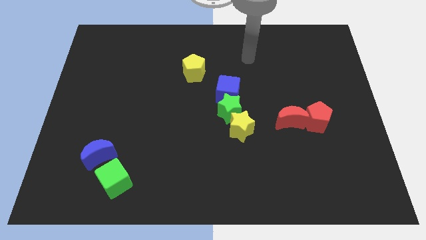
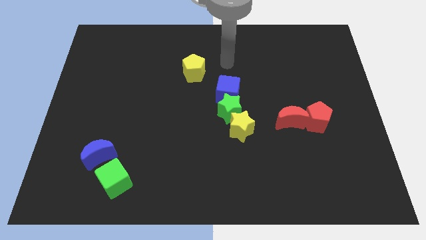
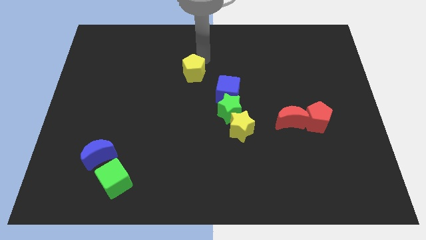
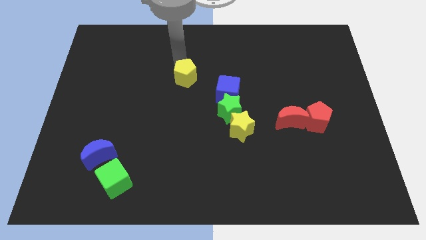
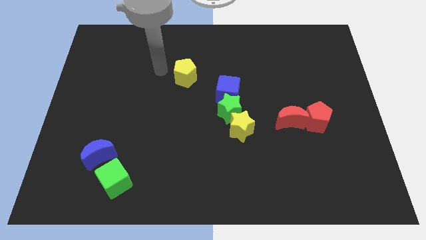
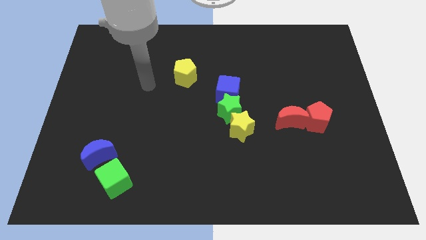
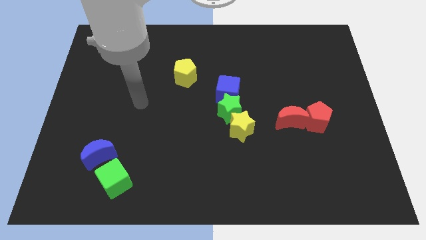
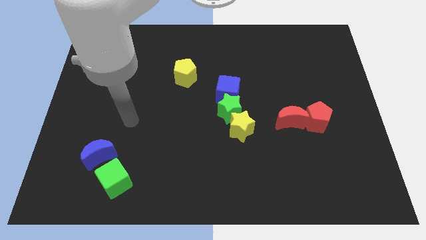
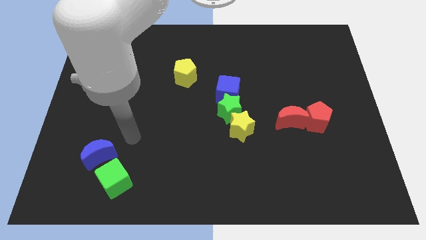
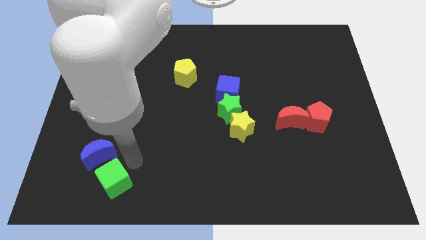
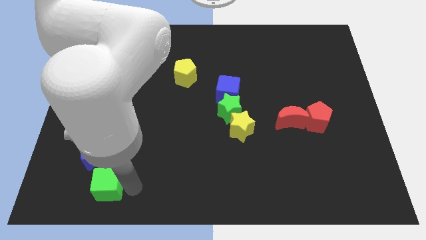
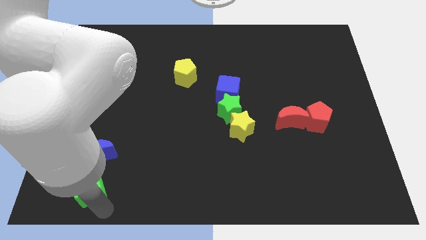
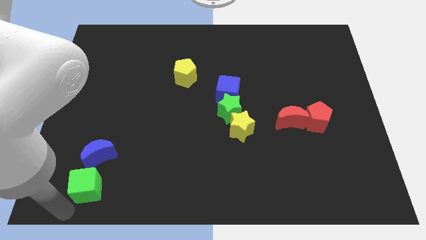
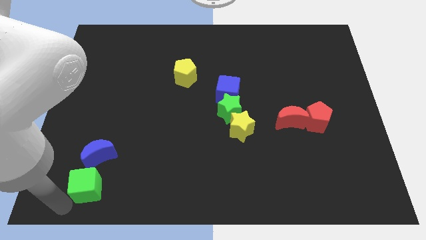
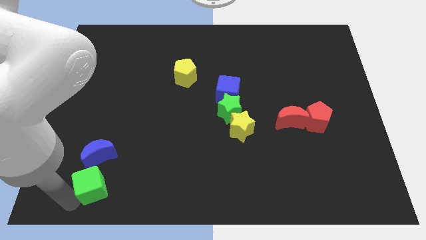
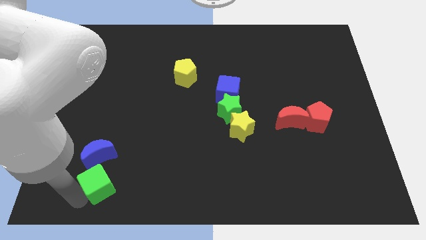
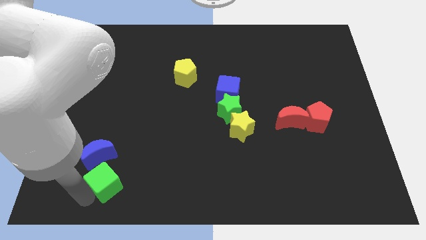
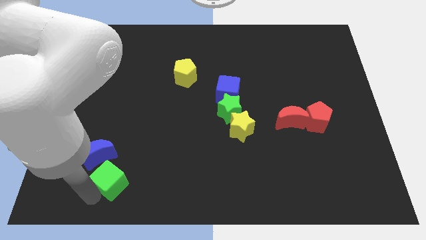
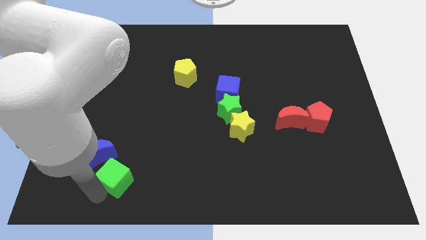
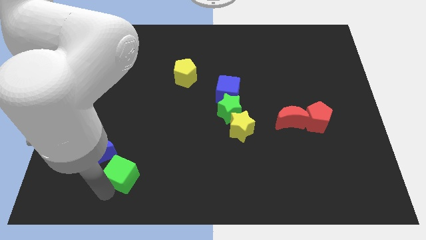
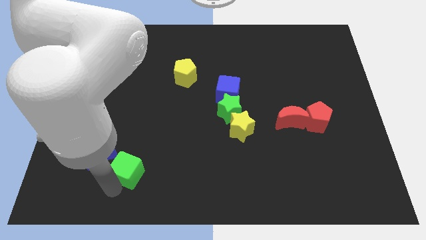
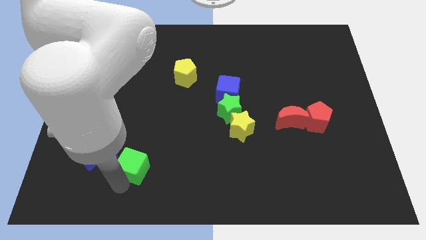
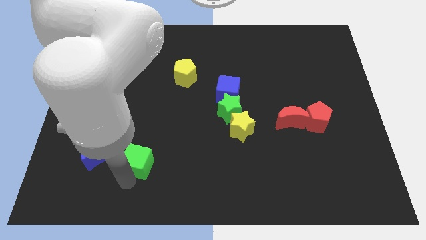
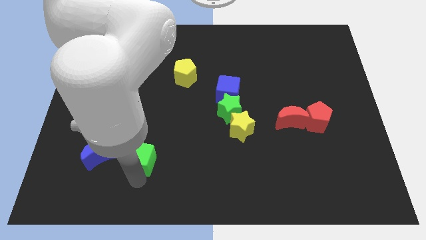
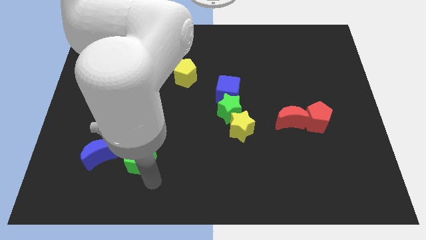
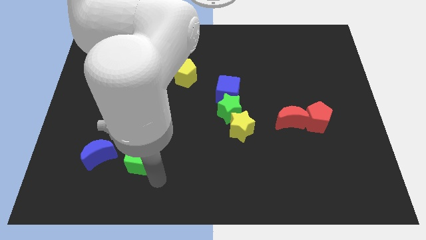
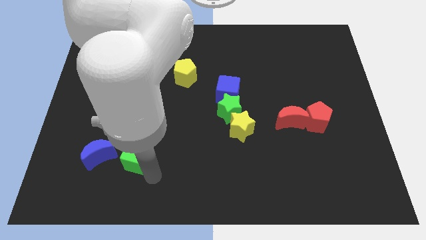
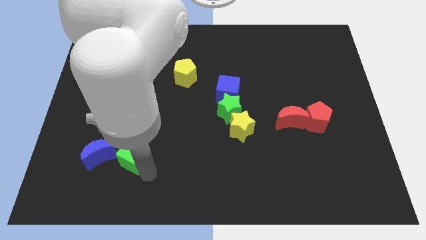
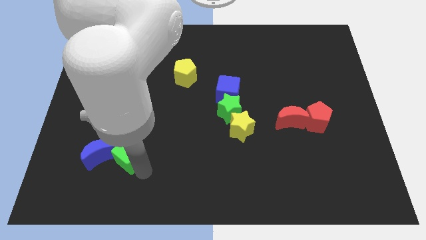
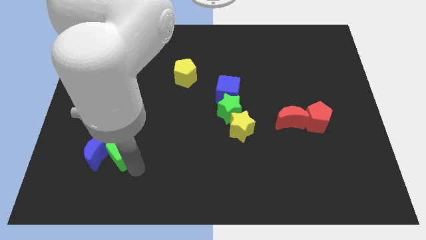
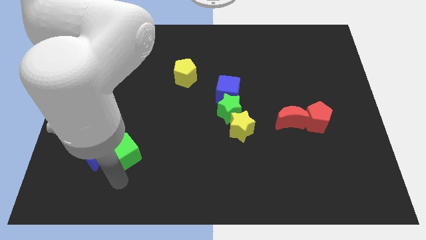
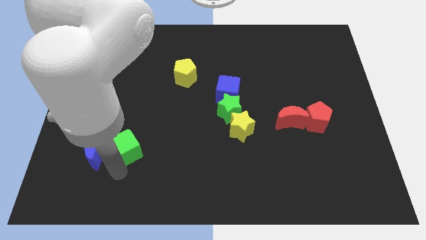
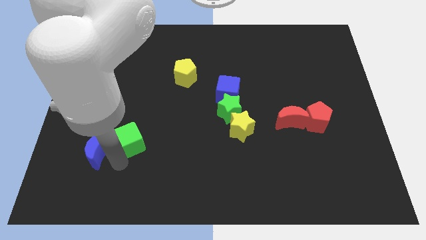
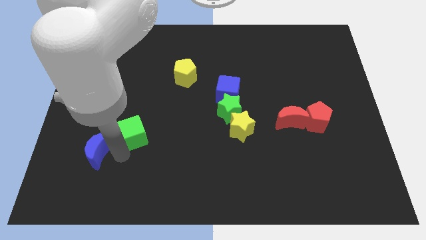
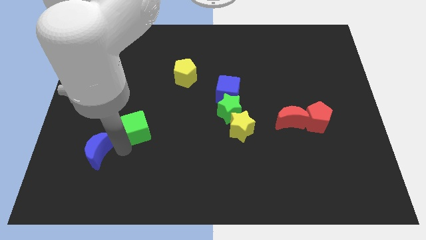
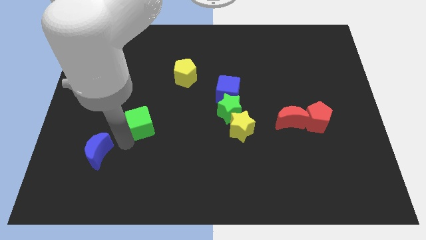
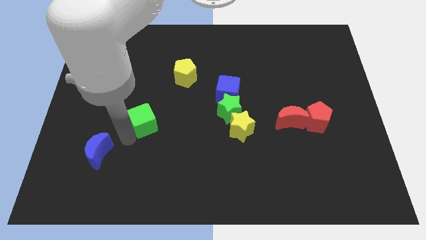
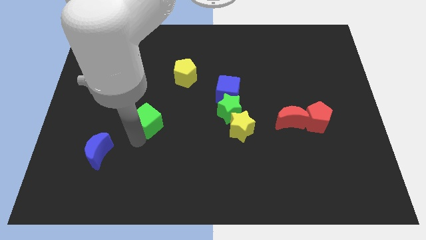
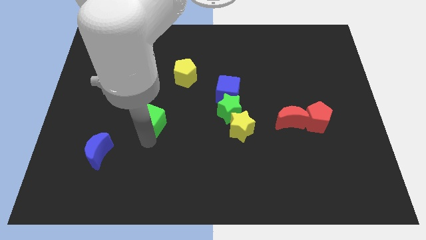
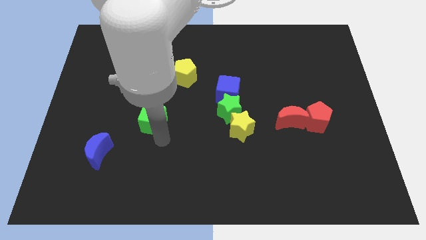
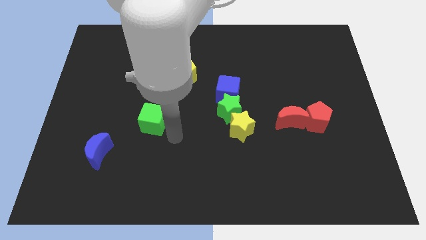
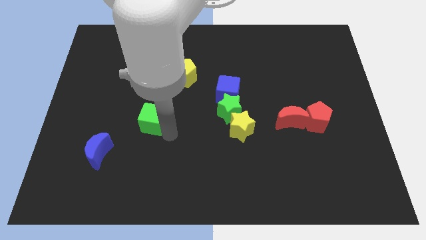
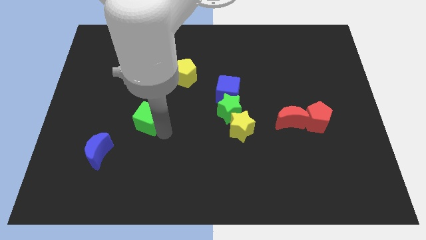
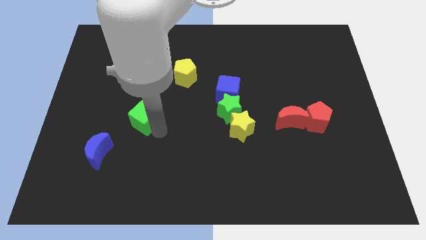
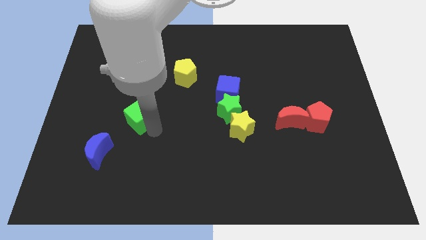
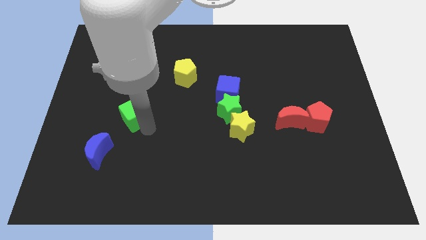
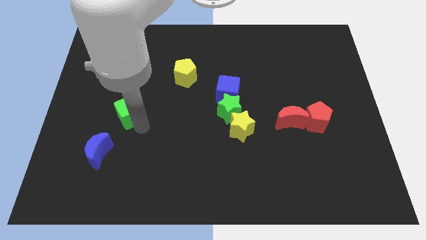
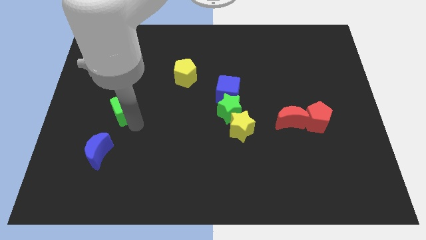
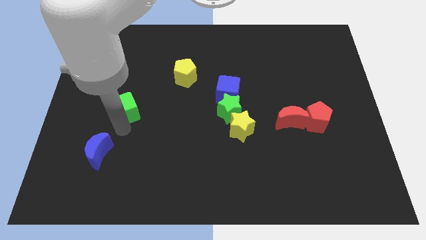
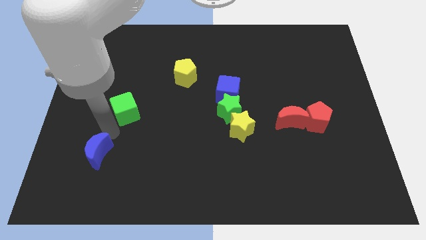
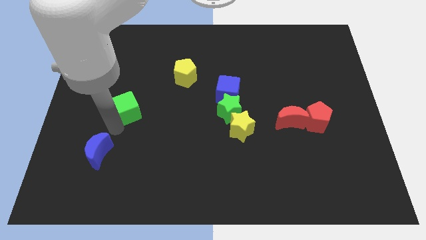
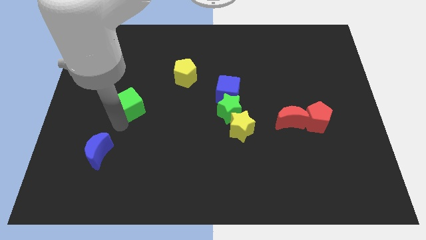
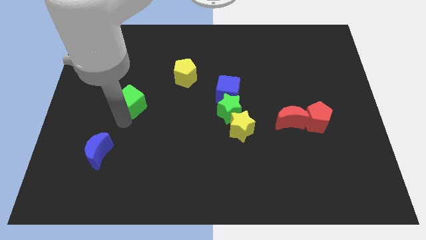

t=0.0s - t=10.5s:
move the green cube up

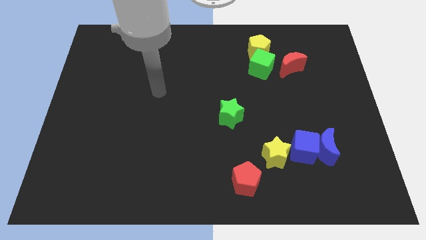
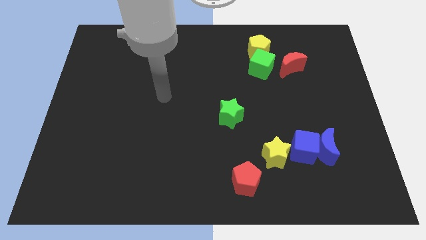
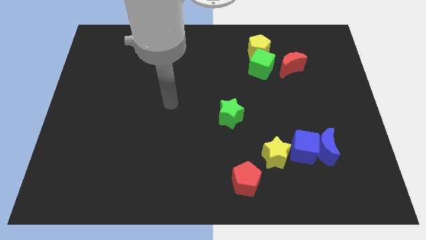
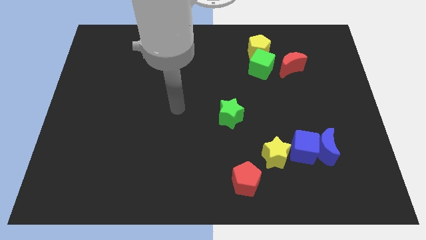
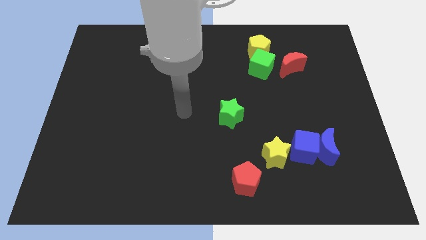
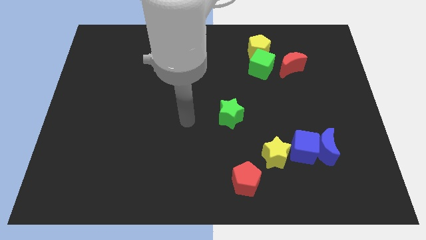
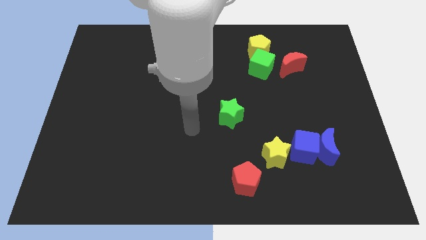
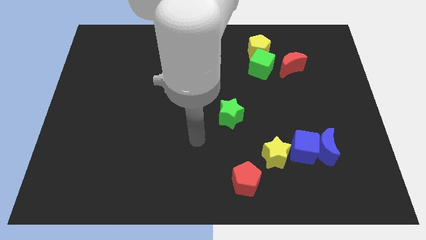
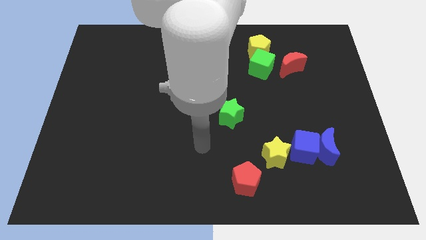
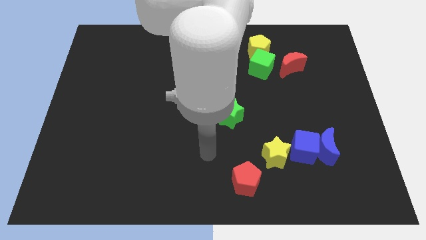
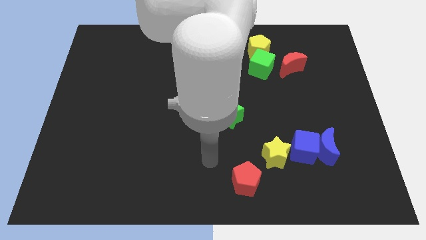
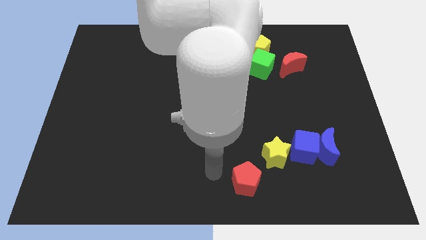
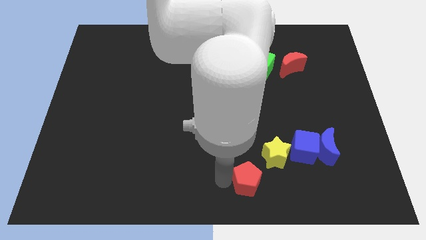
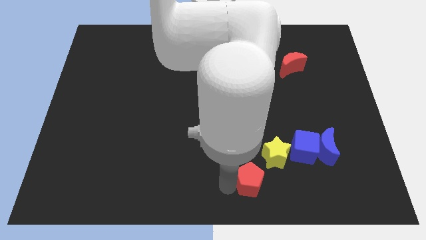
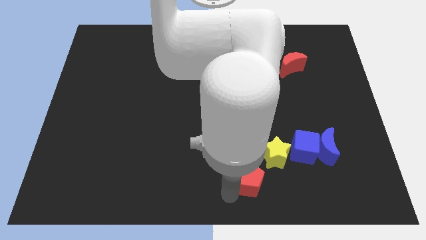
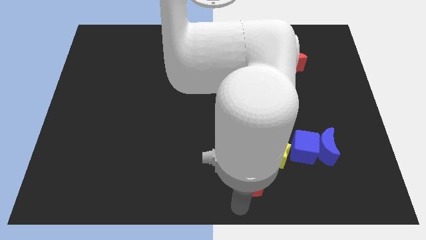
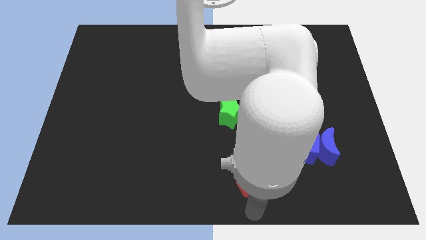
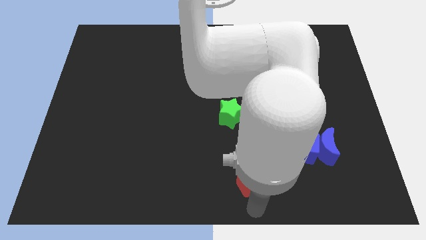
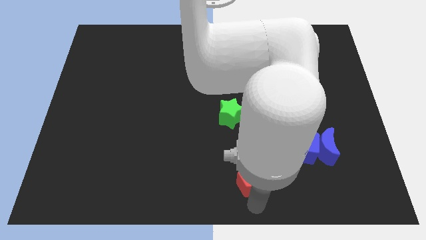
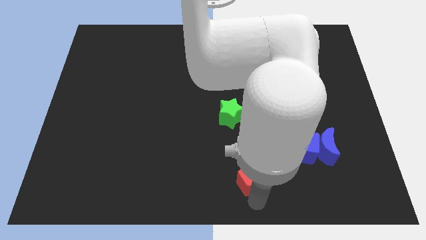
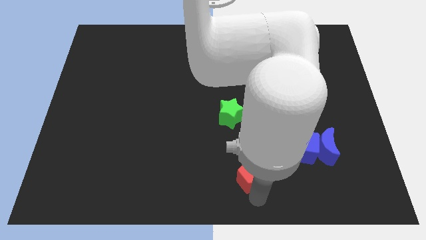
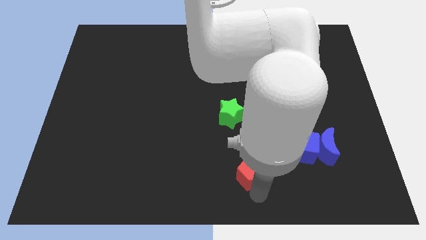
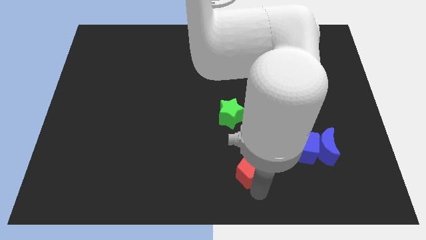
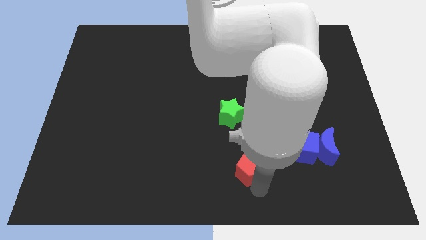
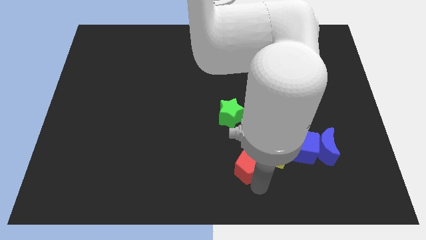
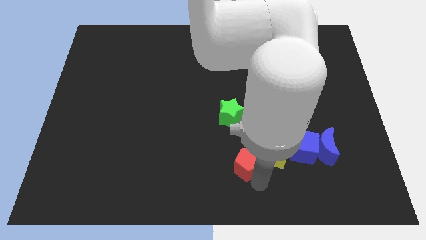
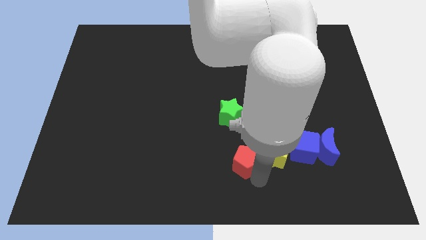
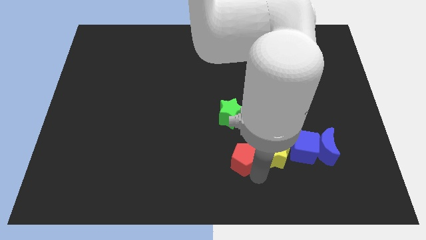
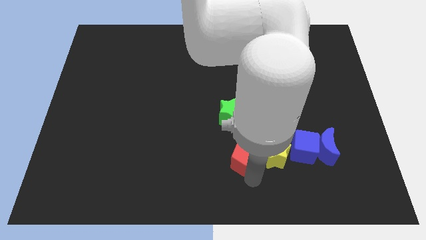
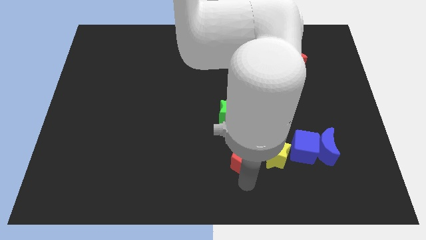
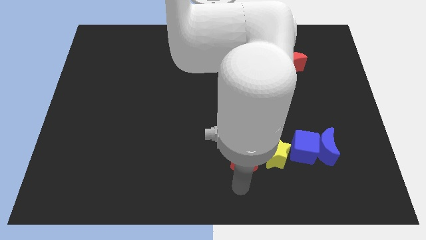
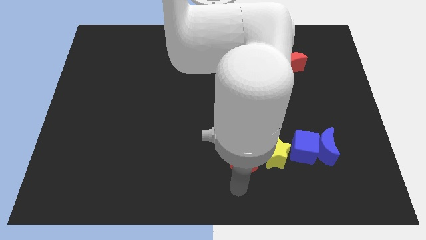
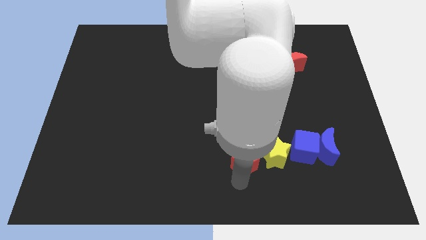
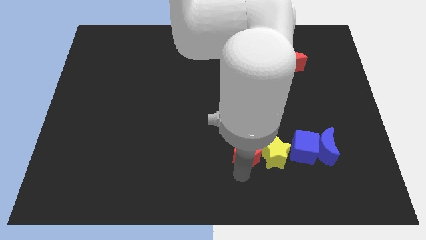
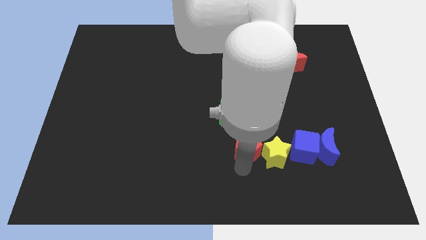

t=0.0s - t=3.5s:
push the red pentagon upwards somewhat
